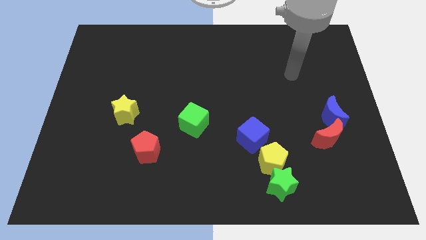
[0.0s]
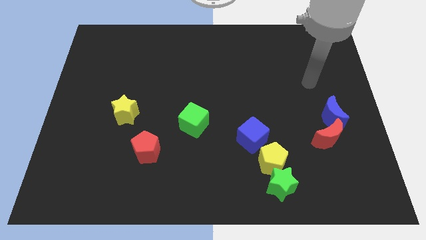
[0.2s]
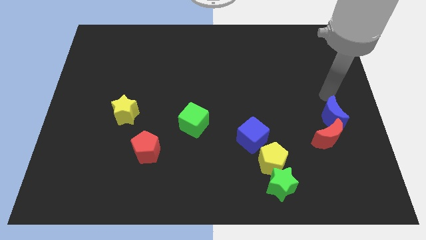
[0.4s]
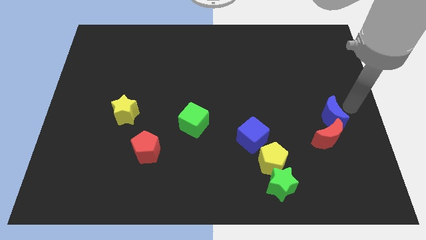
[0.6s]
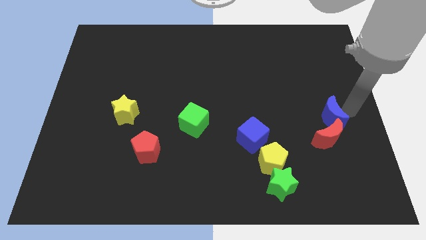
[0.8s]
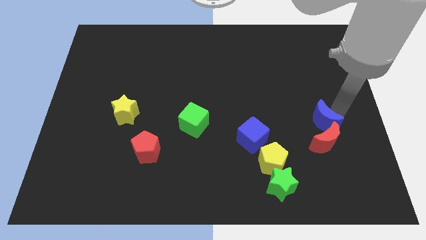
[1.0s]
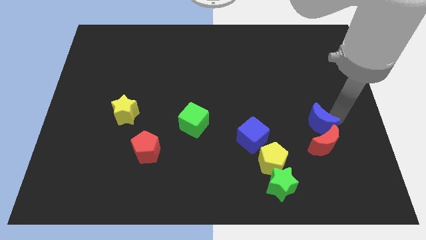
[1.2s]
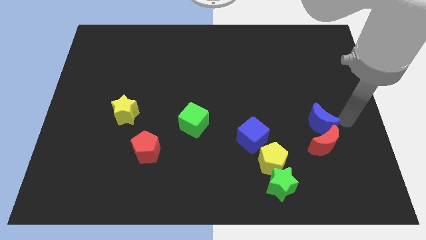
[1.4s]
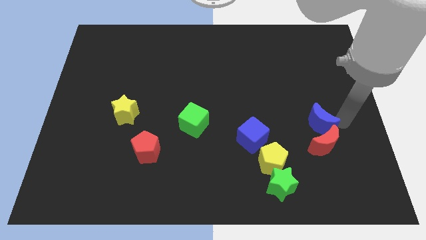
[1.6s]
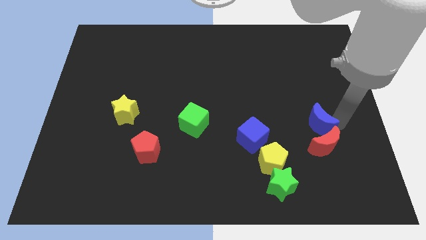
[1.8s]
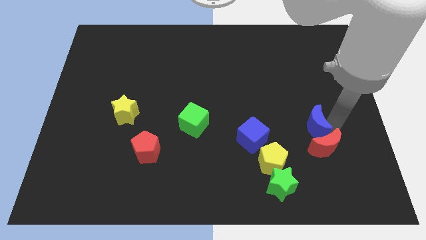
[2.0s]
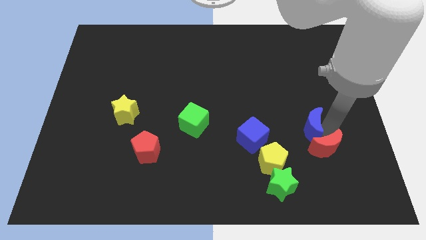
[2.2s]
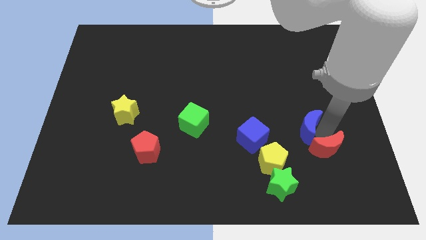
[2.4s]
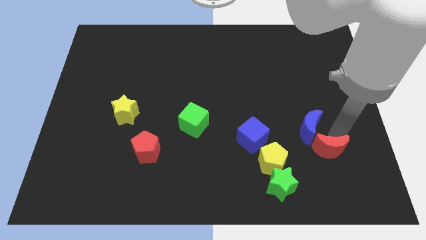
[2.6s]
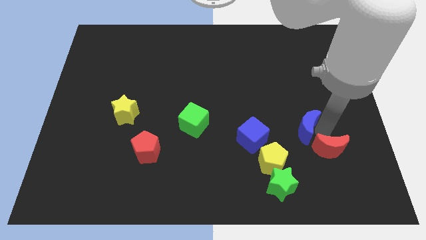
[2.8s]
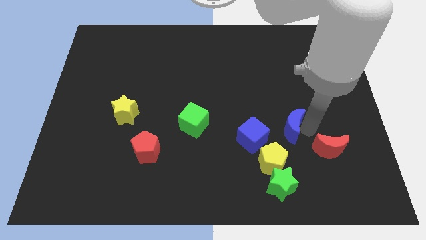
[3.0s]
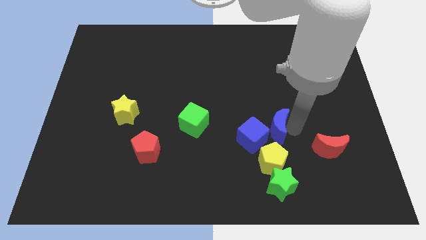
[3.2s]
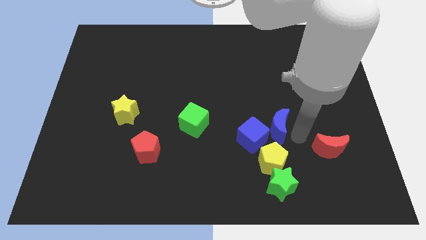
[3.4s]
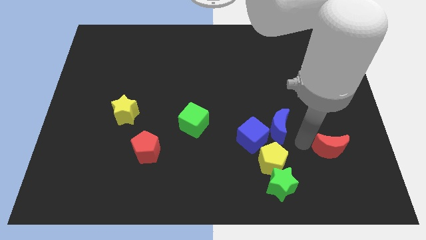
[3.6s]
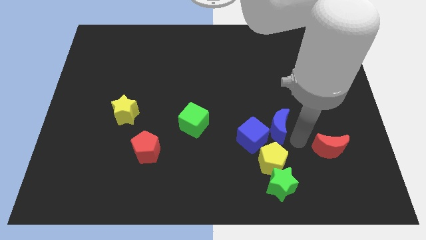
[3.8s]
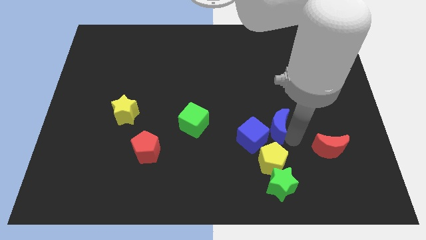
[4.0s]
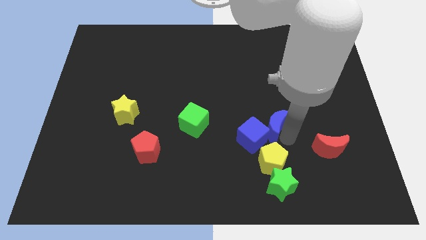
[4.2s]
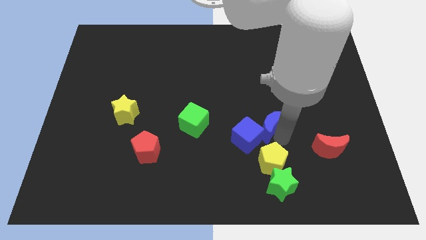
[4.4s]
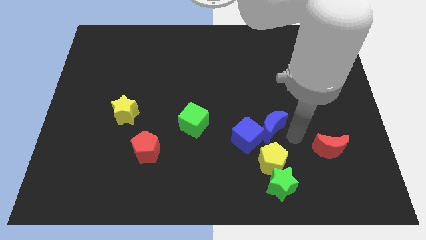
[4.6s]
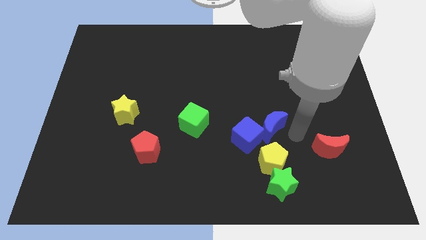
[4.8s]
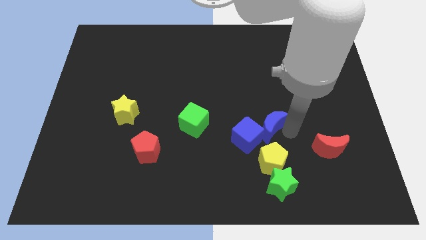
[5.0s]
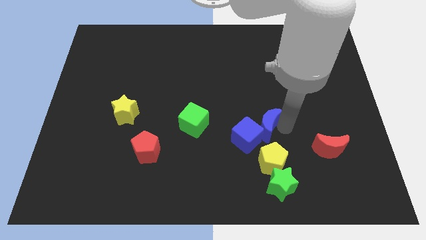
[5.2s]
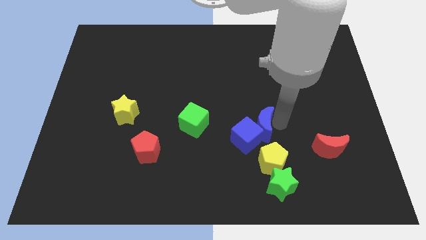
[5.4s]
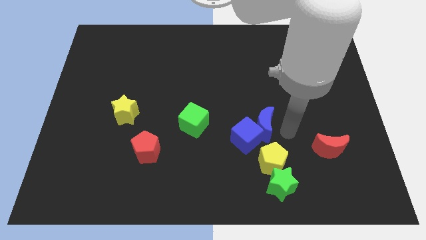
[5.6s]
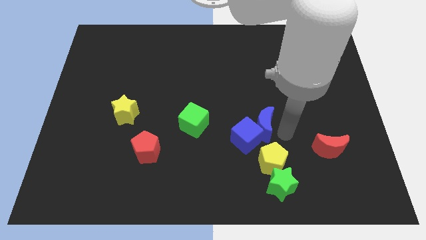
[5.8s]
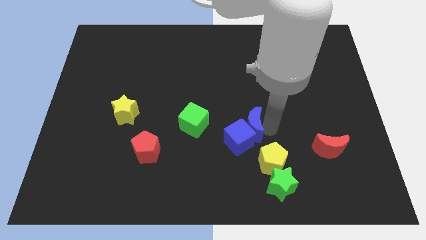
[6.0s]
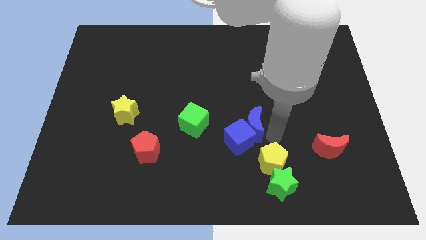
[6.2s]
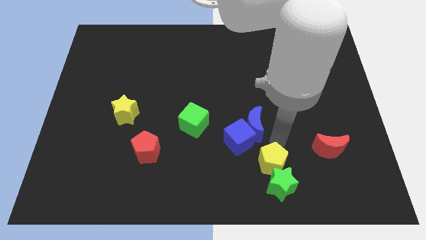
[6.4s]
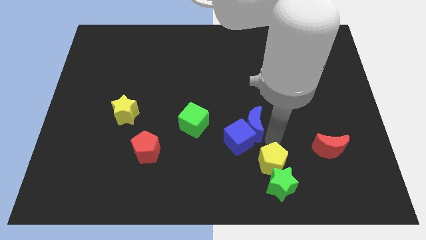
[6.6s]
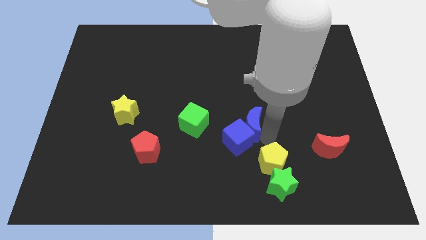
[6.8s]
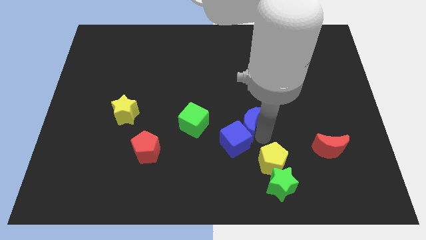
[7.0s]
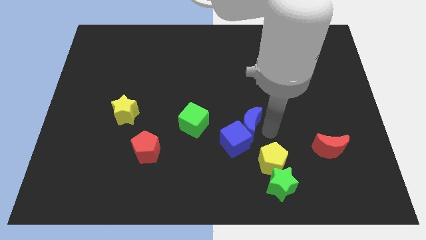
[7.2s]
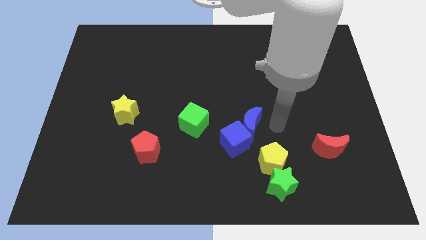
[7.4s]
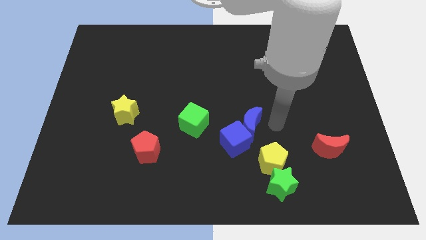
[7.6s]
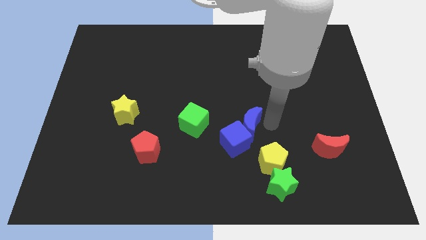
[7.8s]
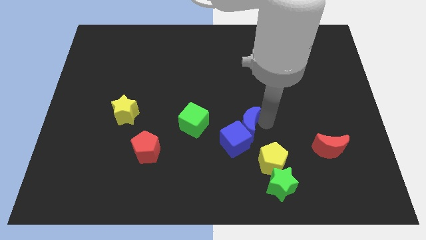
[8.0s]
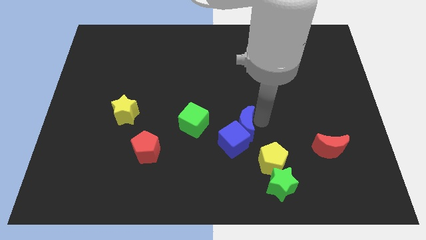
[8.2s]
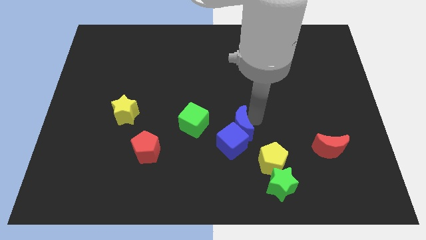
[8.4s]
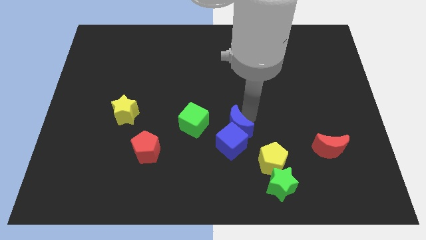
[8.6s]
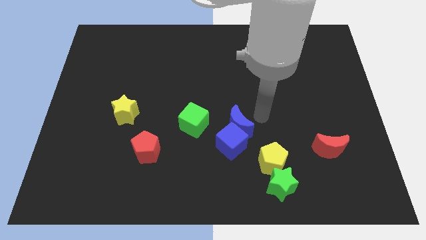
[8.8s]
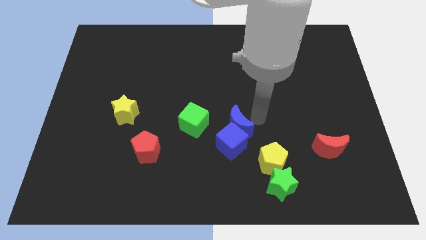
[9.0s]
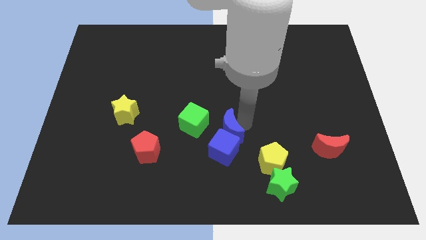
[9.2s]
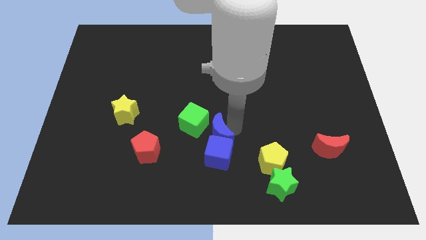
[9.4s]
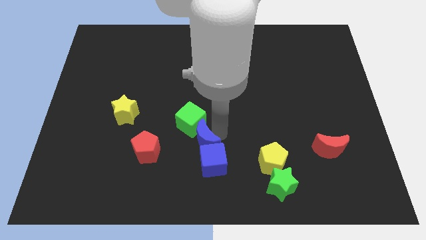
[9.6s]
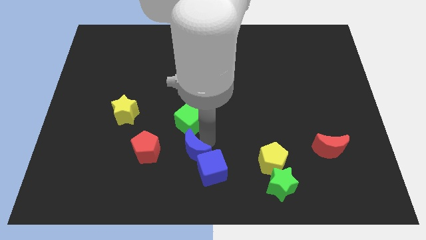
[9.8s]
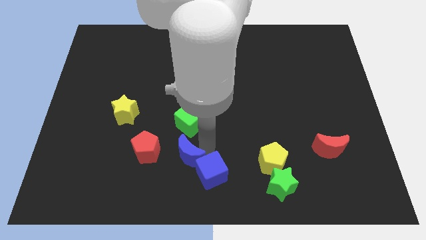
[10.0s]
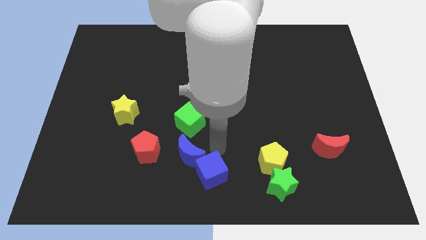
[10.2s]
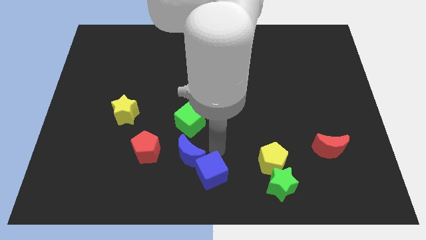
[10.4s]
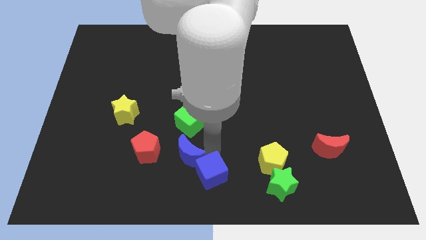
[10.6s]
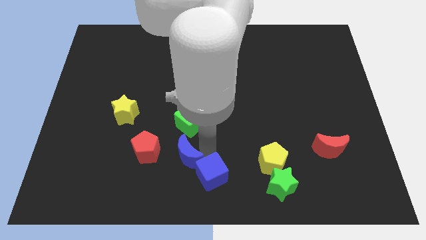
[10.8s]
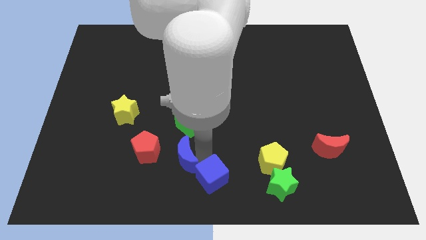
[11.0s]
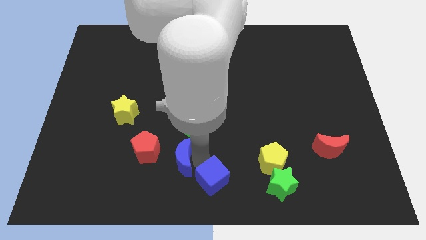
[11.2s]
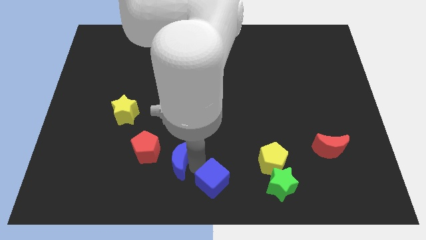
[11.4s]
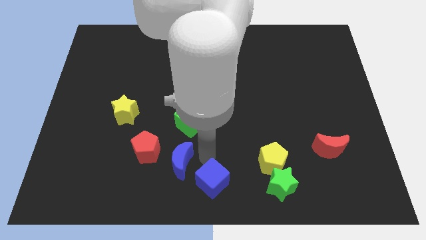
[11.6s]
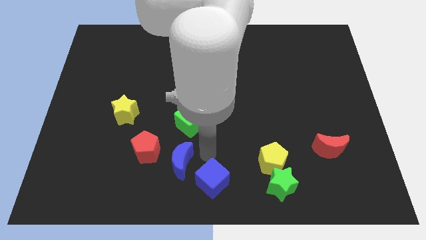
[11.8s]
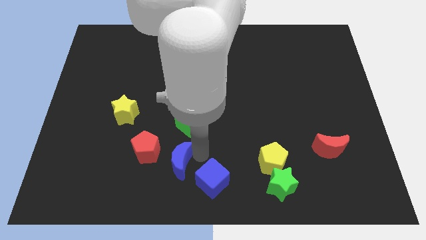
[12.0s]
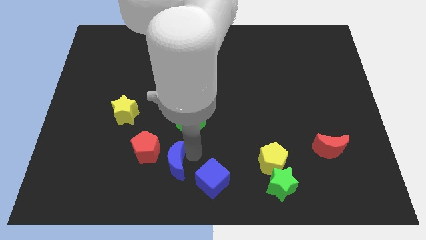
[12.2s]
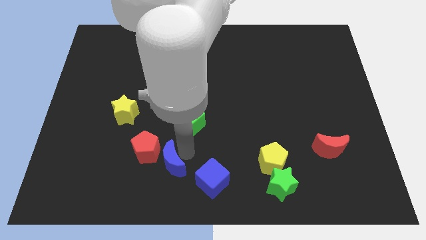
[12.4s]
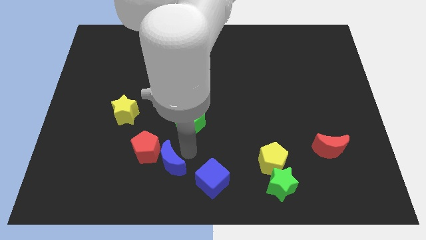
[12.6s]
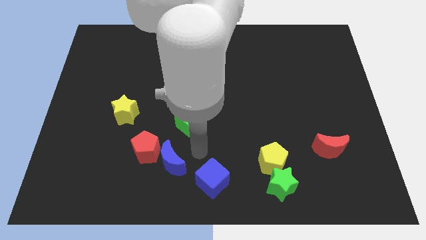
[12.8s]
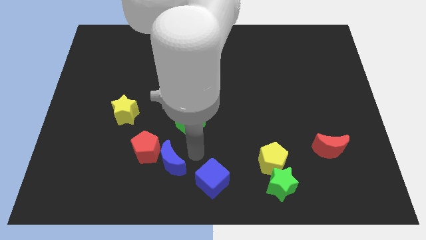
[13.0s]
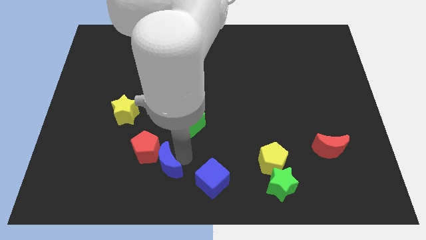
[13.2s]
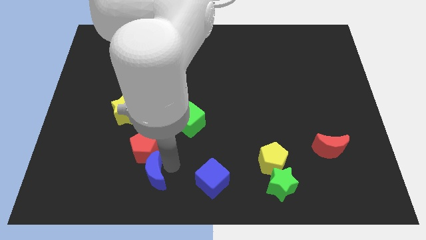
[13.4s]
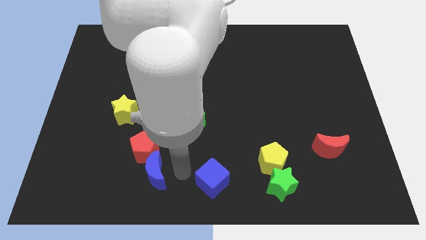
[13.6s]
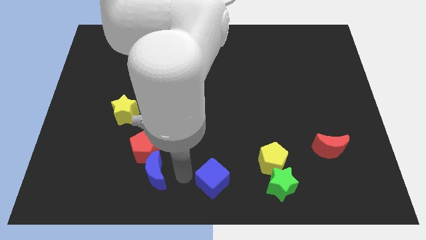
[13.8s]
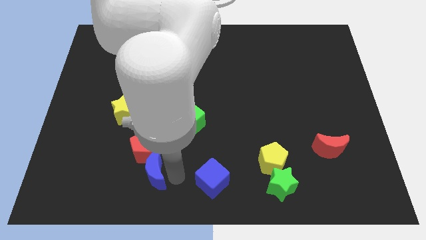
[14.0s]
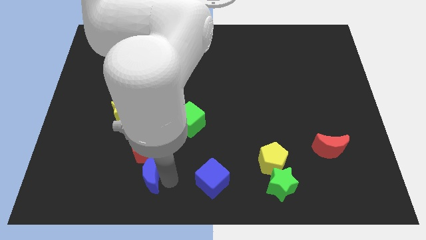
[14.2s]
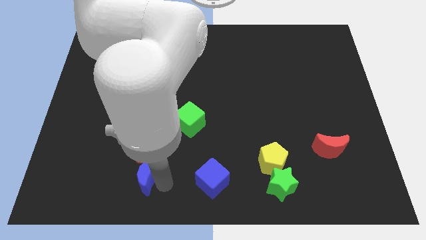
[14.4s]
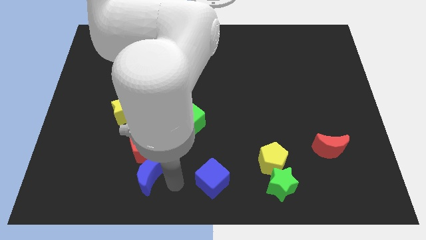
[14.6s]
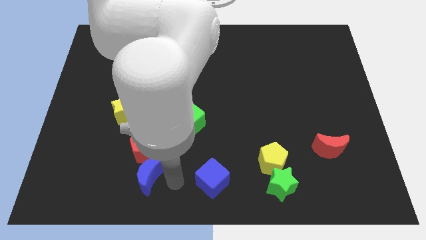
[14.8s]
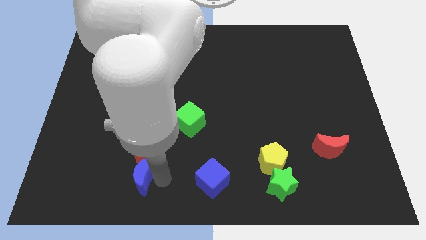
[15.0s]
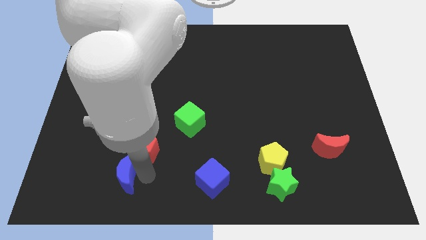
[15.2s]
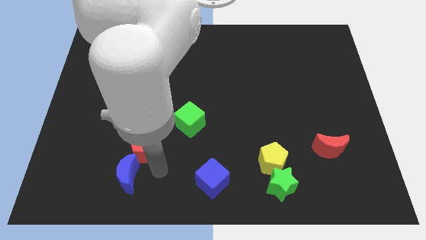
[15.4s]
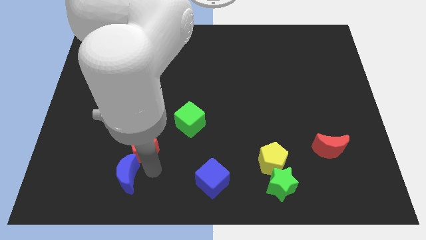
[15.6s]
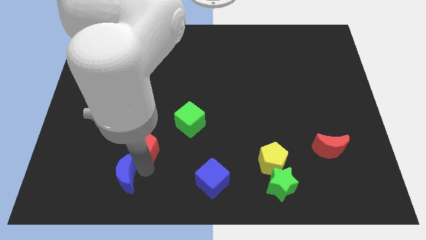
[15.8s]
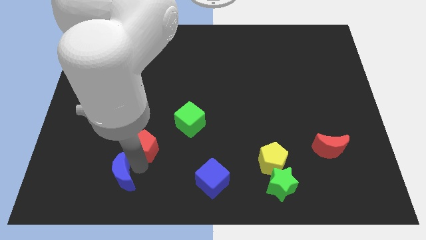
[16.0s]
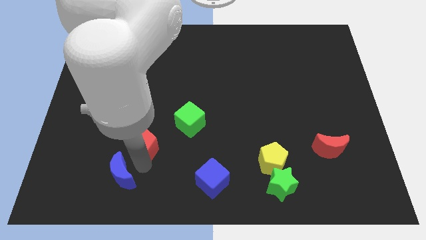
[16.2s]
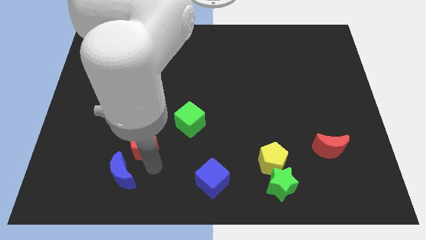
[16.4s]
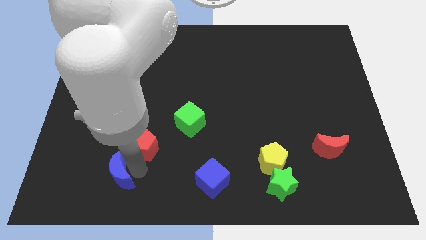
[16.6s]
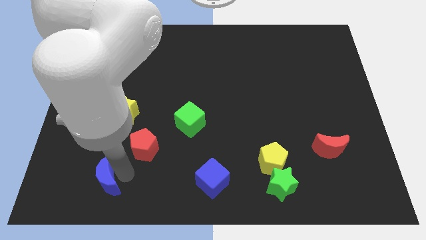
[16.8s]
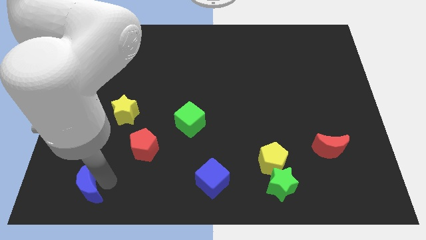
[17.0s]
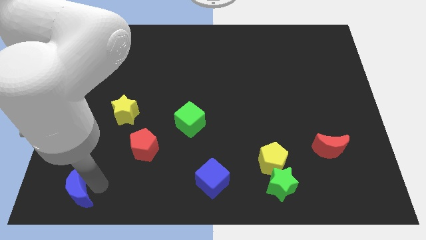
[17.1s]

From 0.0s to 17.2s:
slide the blue moon to the bottom left
